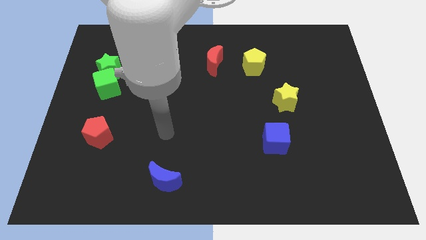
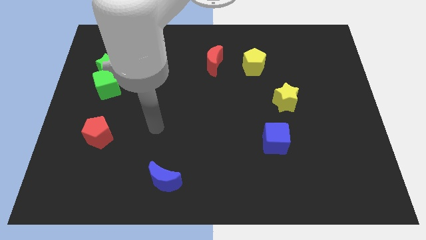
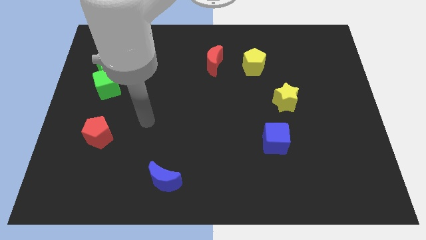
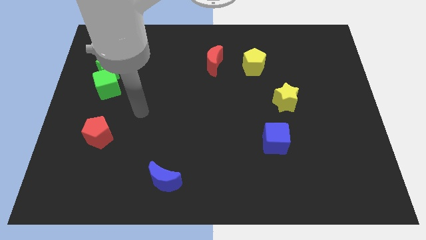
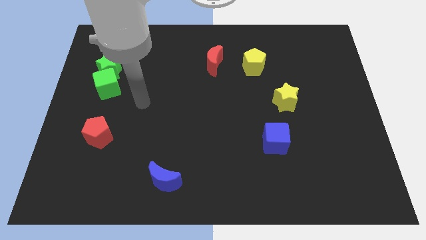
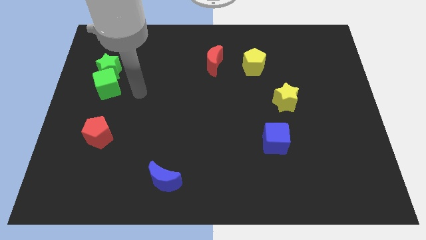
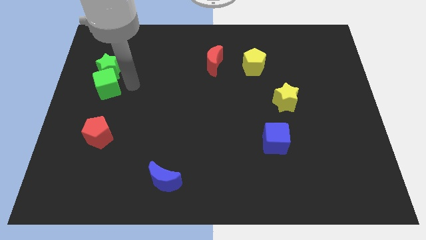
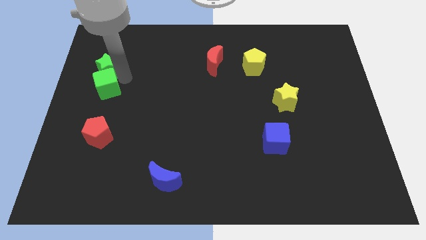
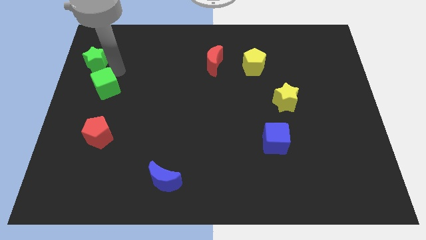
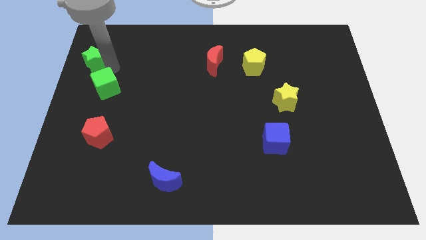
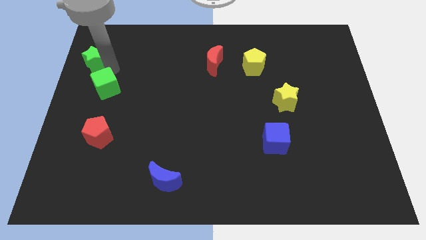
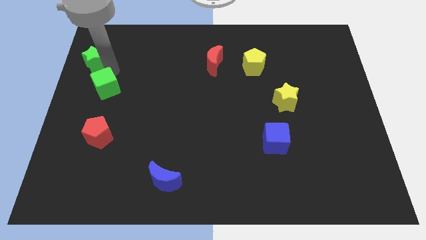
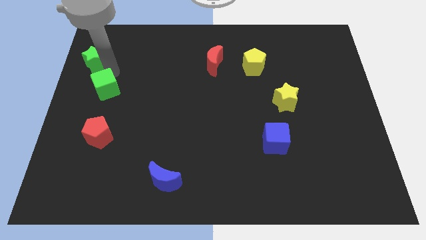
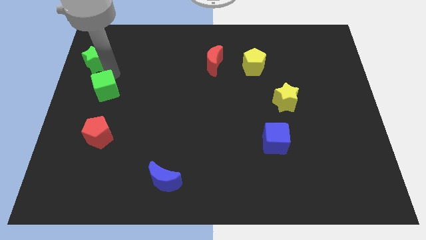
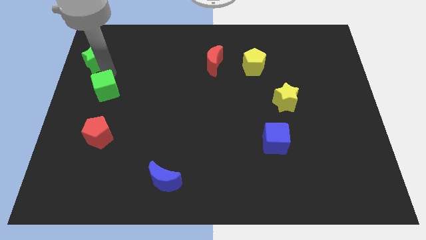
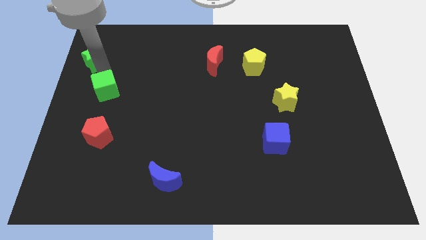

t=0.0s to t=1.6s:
separate the green cube from the green star

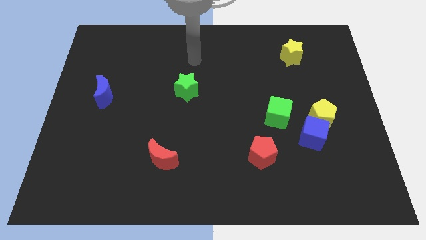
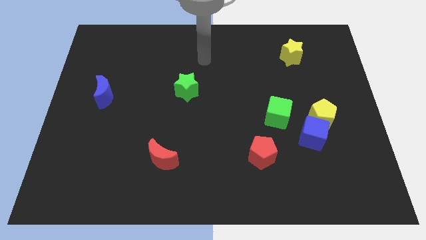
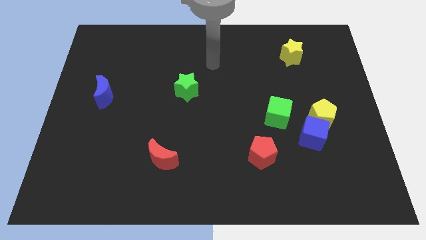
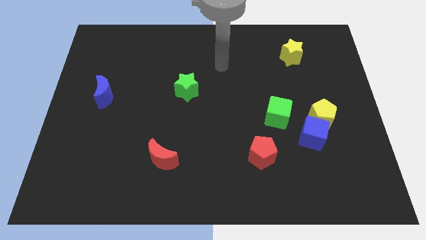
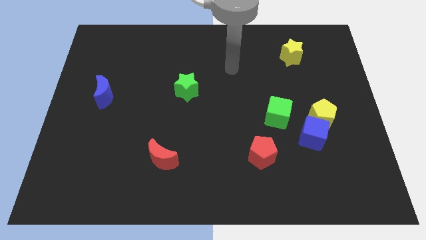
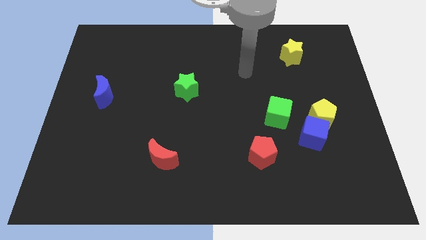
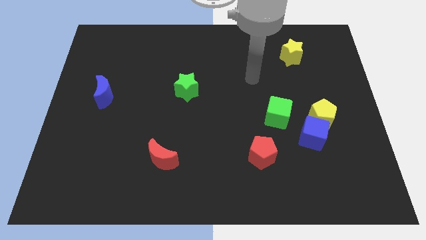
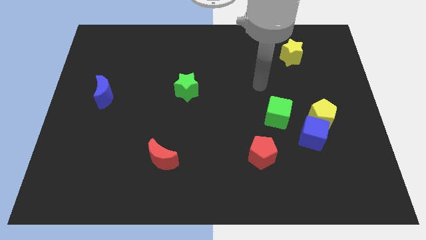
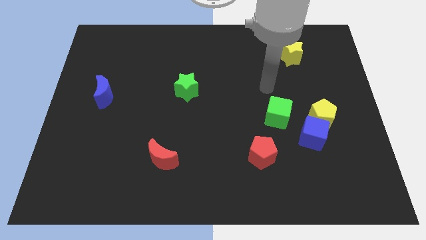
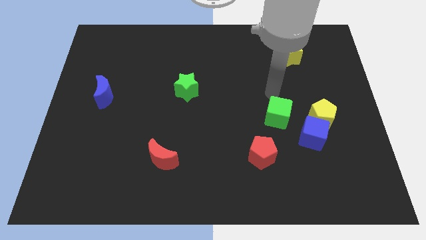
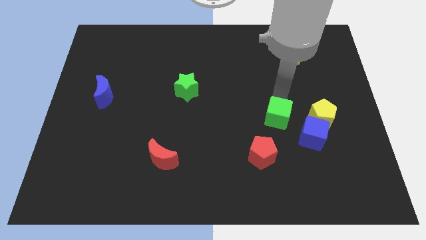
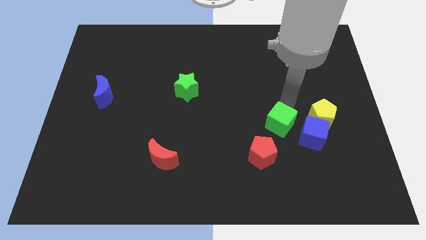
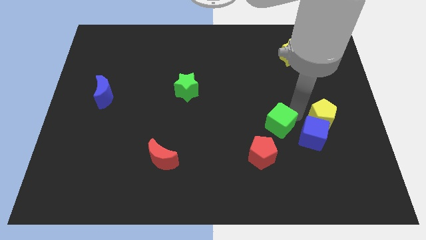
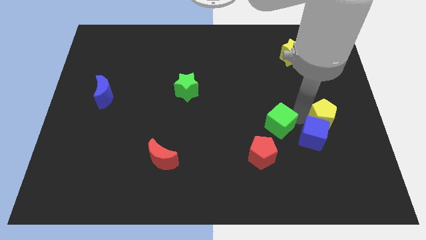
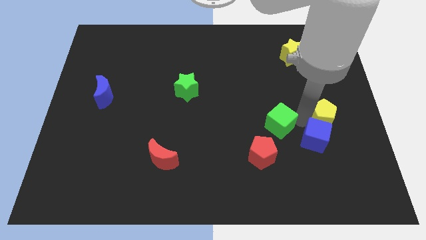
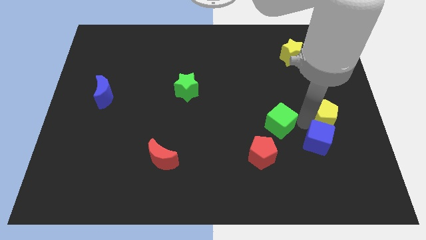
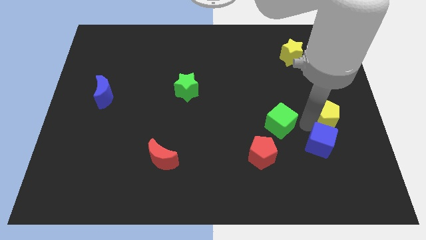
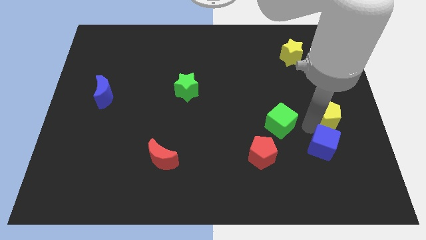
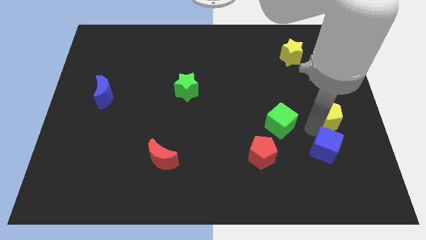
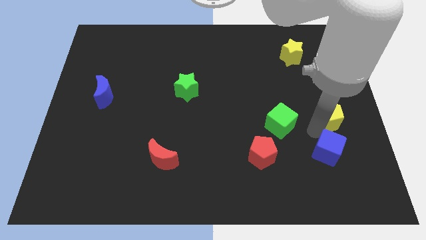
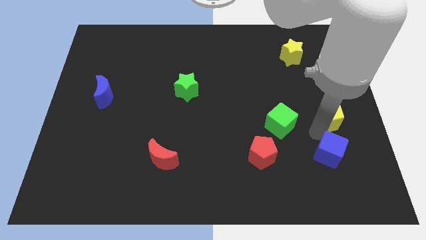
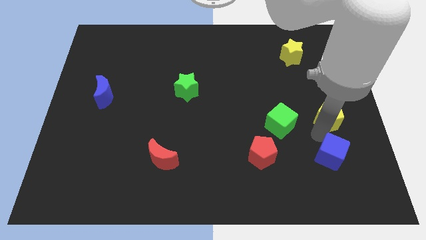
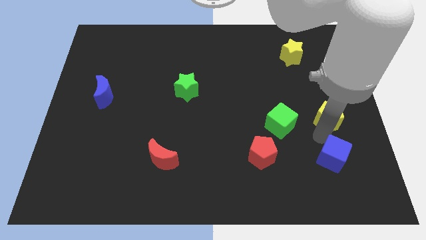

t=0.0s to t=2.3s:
pull the blue cube apart from the yellow pentagon and green cube

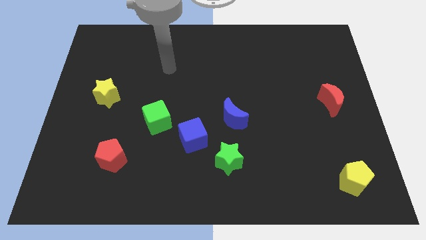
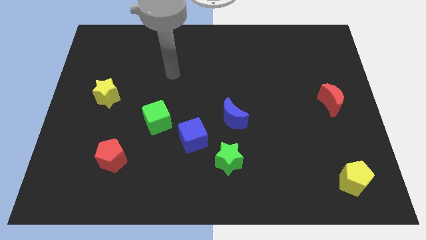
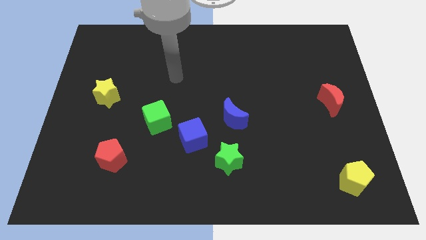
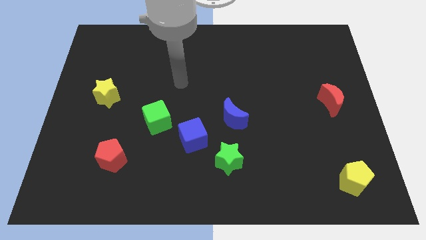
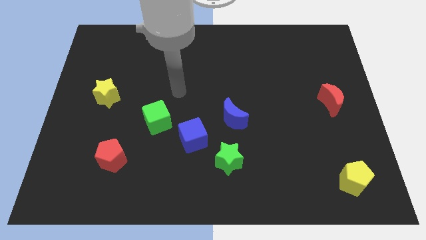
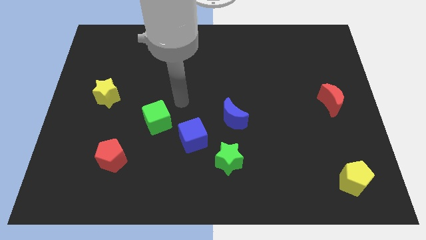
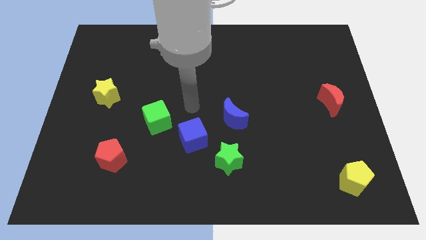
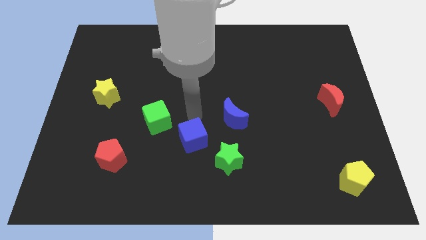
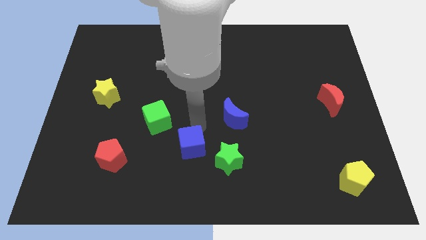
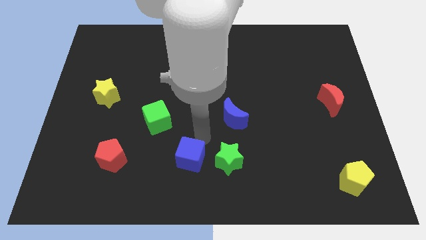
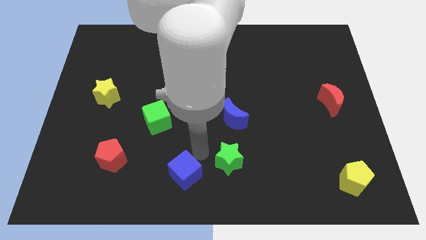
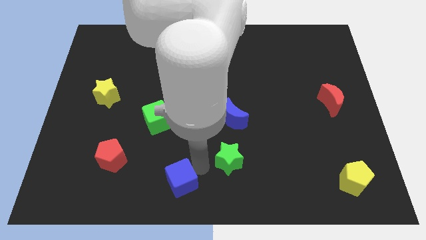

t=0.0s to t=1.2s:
move the green star away from the blue cube

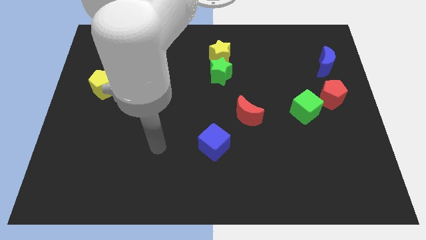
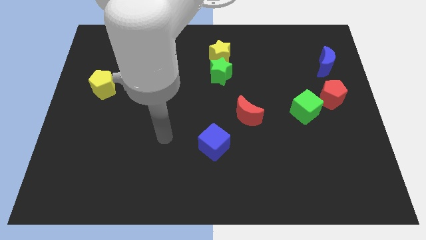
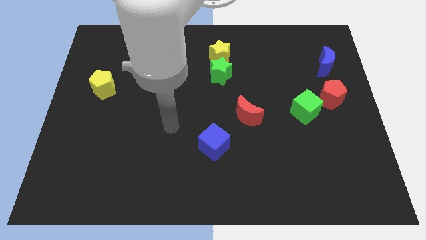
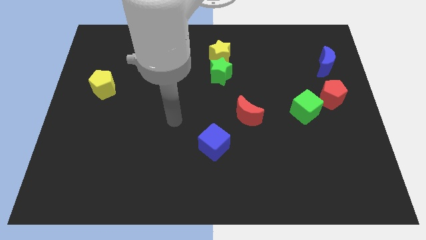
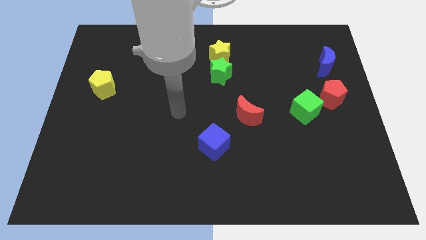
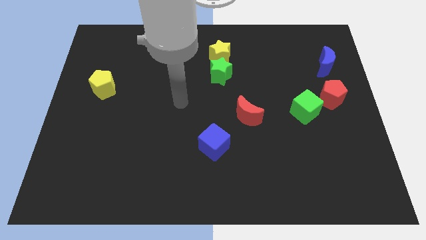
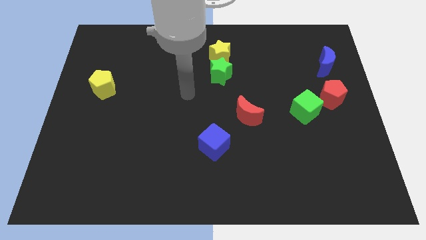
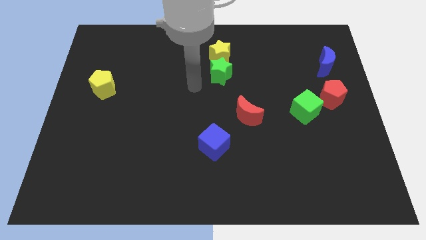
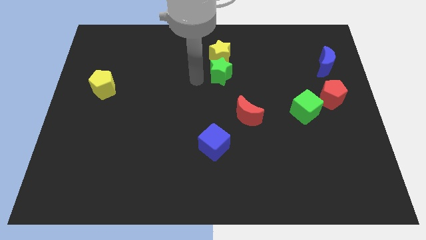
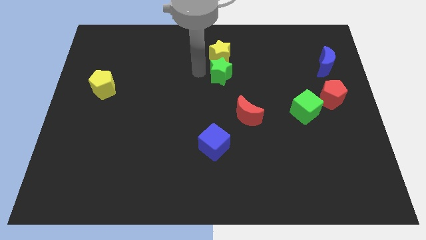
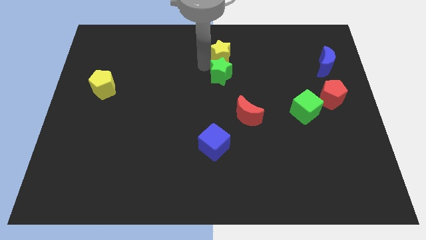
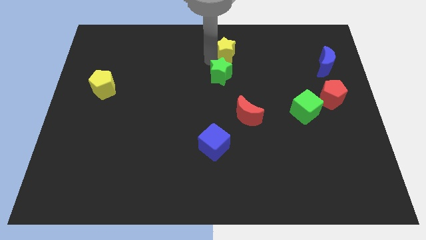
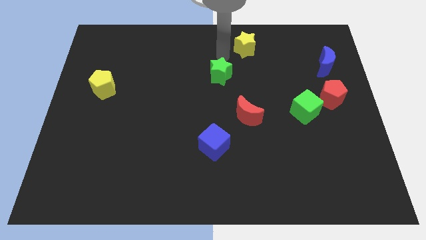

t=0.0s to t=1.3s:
move the green star away from the yellow star

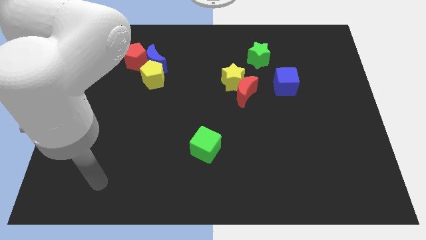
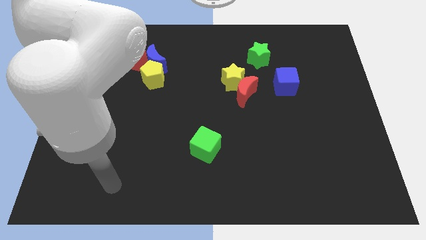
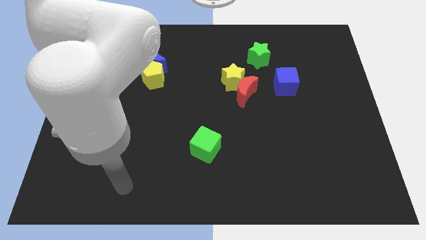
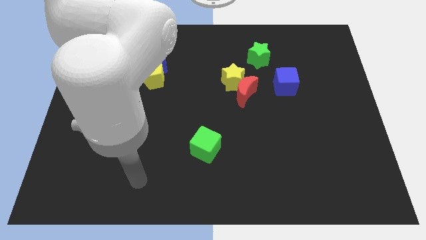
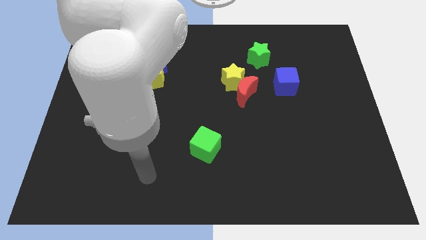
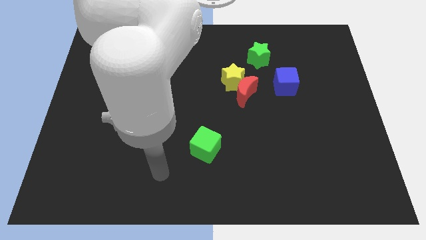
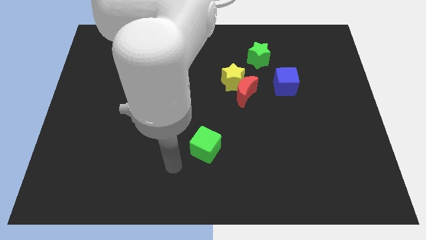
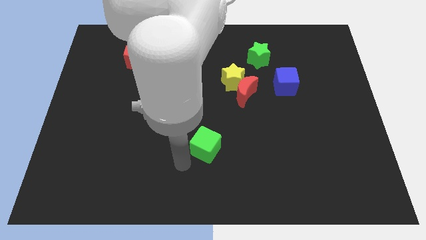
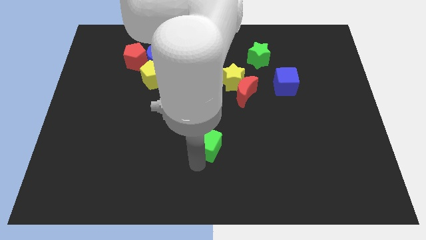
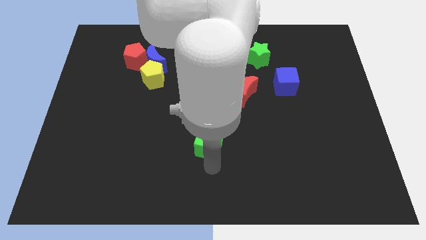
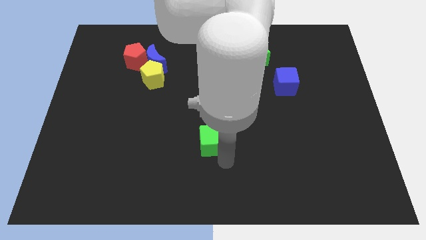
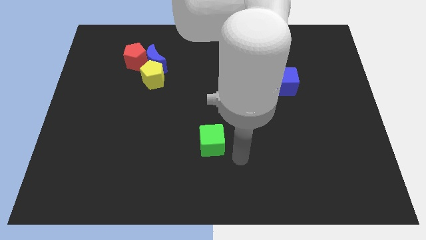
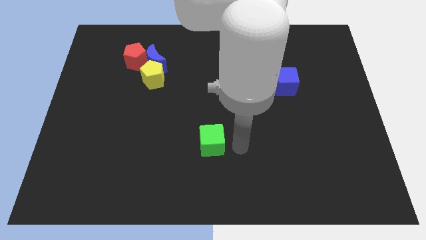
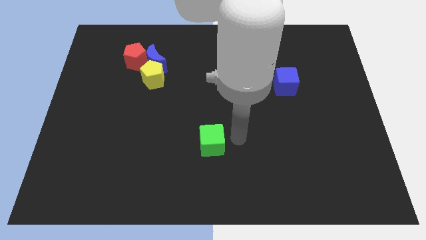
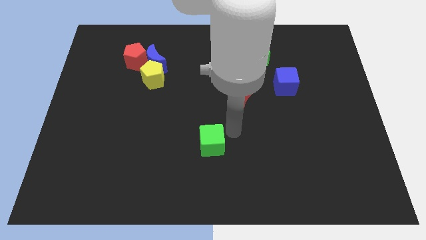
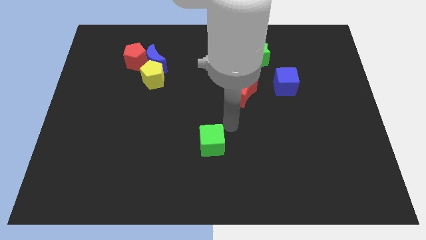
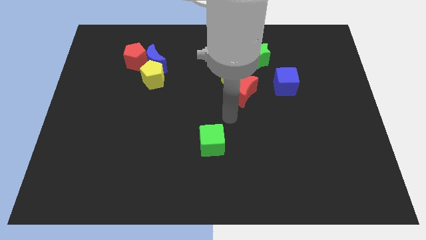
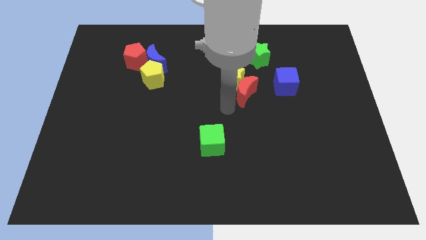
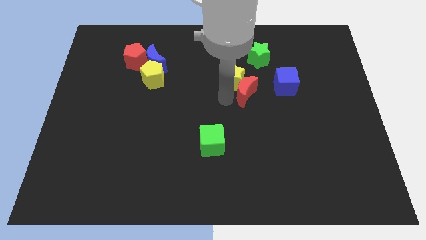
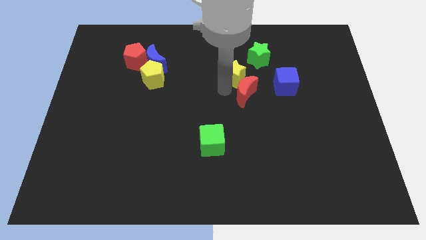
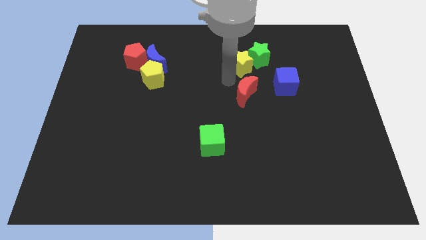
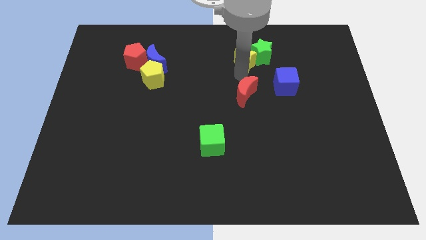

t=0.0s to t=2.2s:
pull the red moon apart from the yellow star

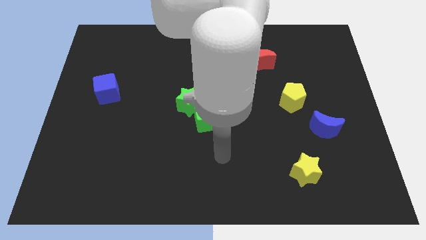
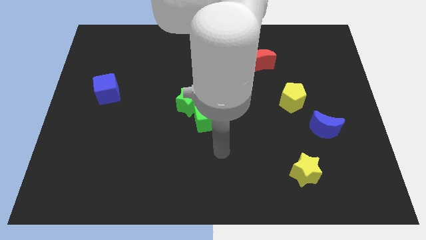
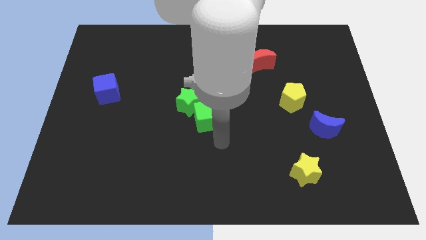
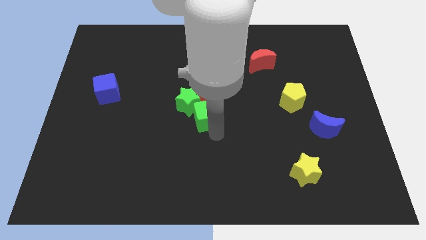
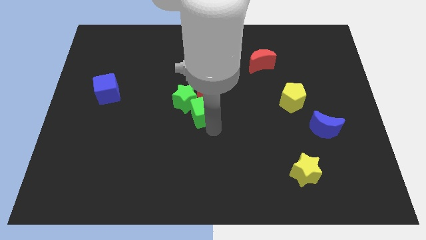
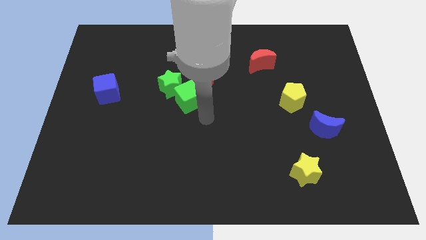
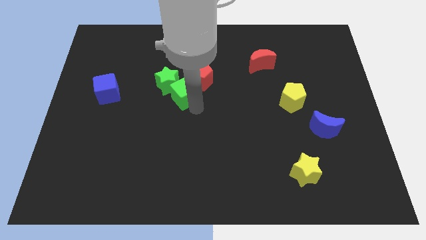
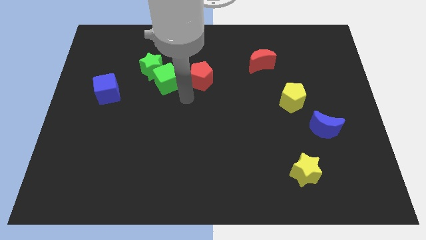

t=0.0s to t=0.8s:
pull the red pentagon apart from the green star and green cube
